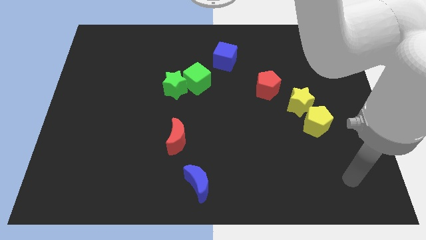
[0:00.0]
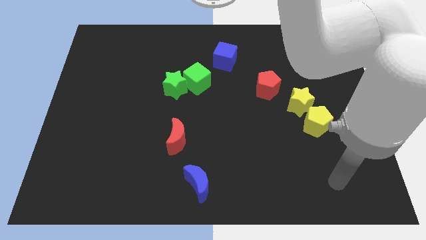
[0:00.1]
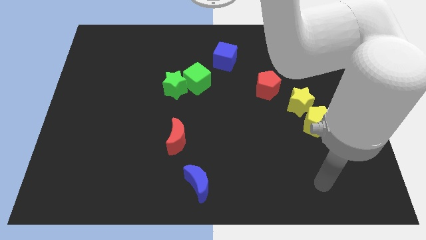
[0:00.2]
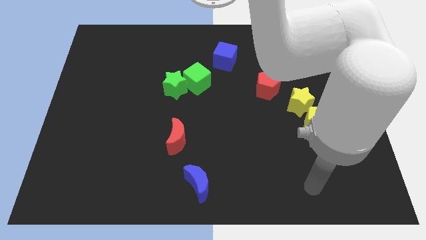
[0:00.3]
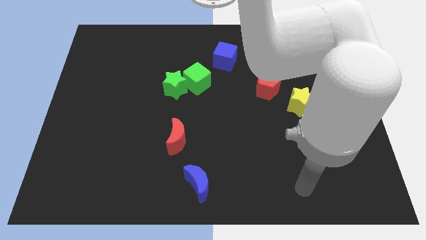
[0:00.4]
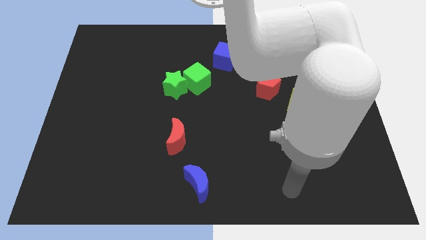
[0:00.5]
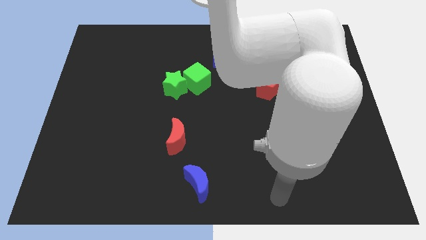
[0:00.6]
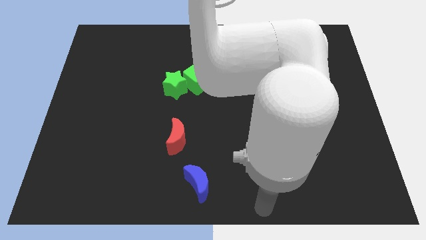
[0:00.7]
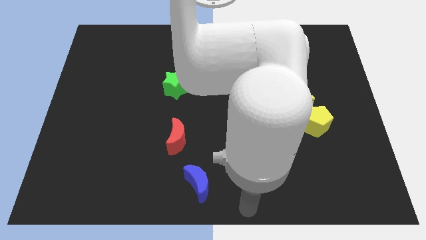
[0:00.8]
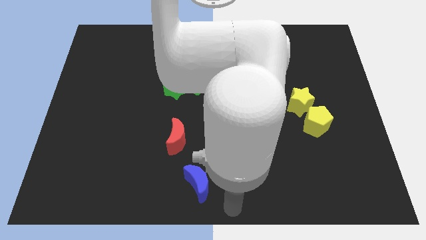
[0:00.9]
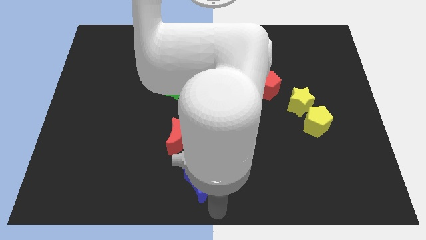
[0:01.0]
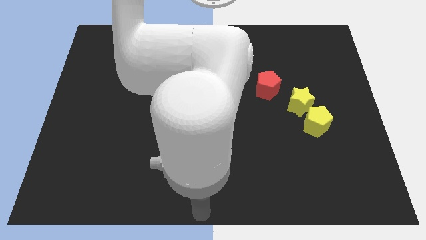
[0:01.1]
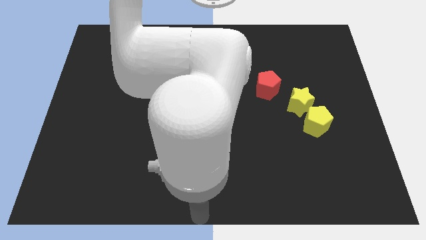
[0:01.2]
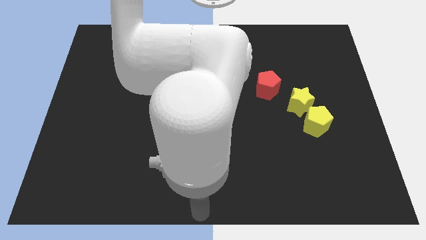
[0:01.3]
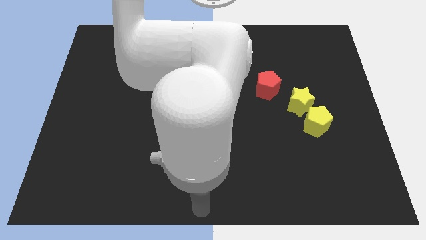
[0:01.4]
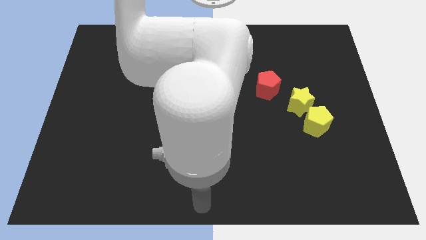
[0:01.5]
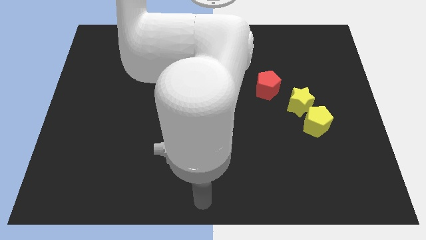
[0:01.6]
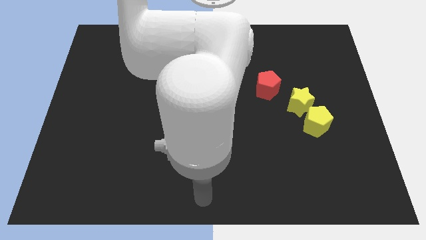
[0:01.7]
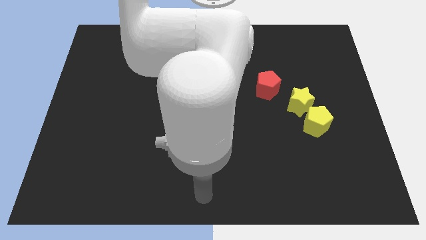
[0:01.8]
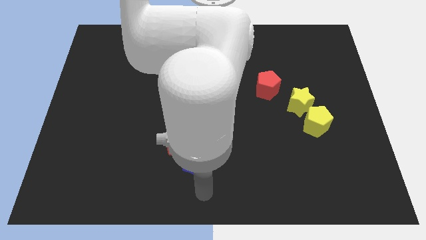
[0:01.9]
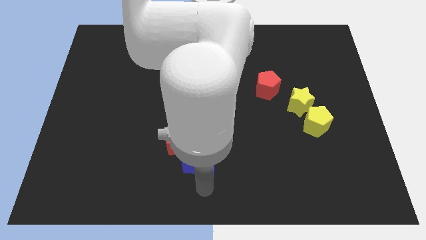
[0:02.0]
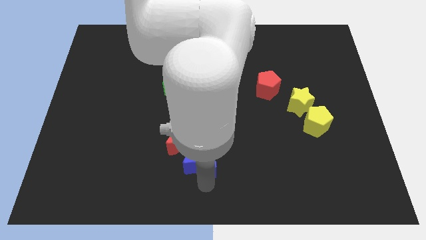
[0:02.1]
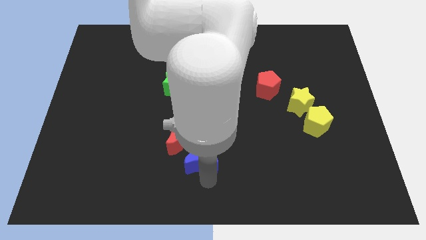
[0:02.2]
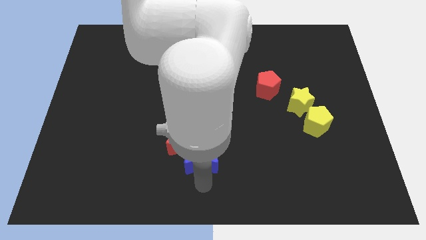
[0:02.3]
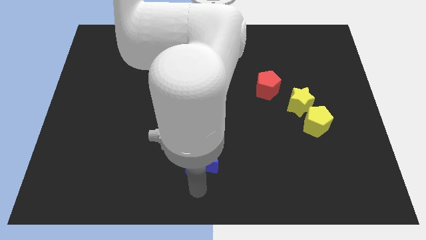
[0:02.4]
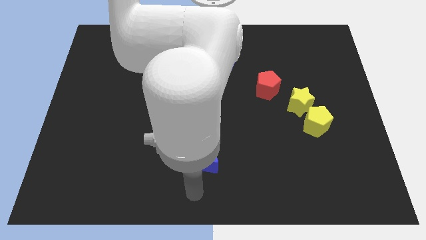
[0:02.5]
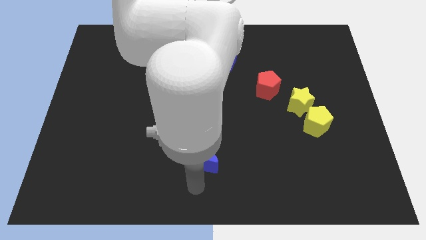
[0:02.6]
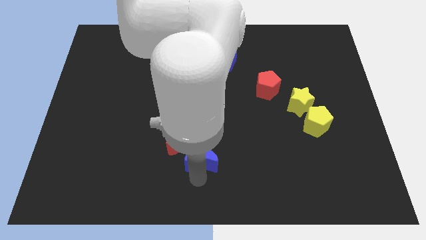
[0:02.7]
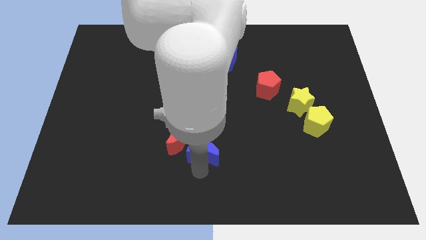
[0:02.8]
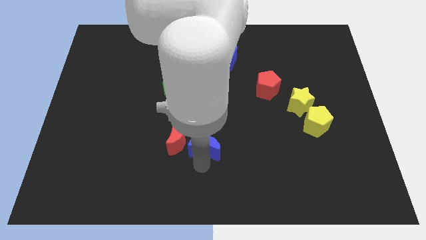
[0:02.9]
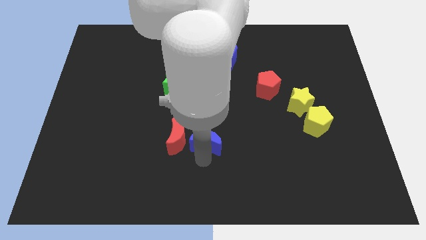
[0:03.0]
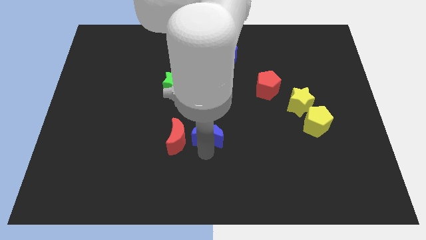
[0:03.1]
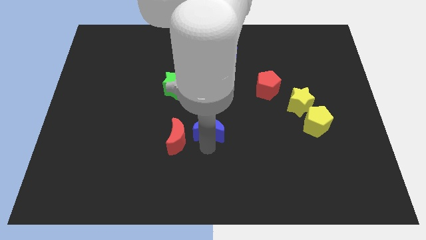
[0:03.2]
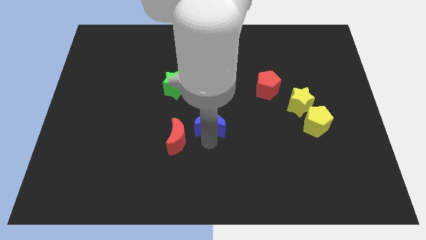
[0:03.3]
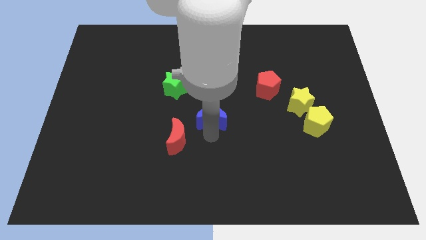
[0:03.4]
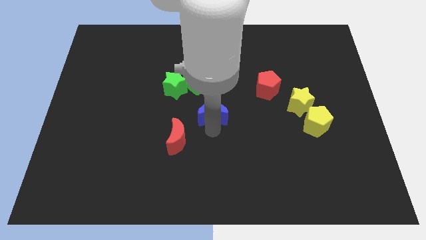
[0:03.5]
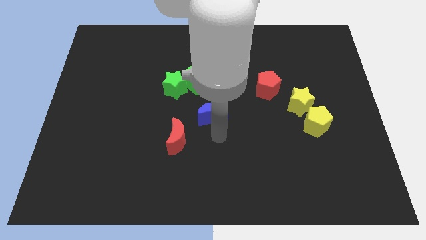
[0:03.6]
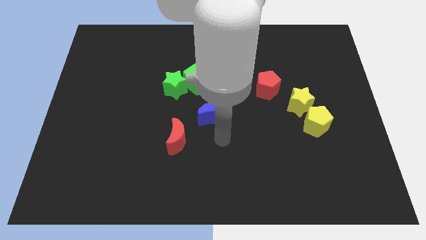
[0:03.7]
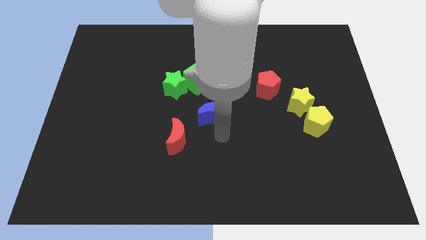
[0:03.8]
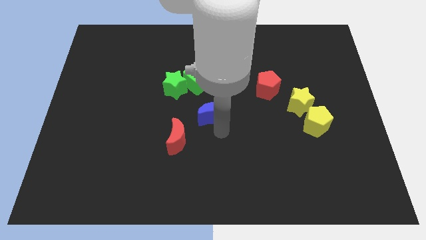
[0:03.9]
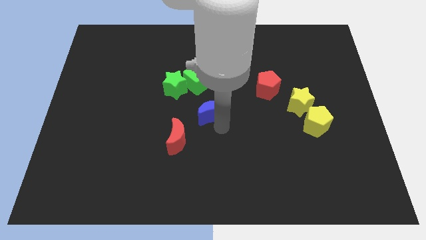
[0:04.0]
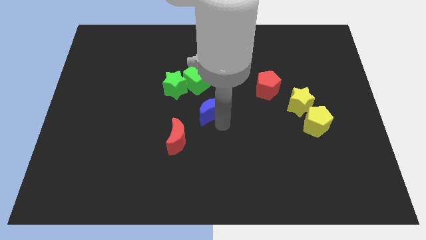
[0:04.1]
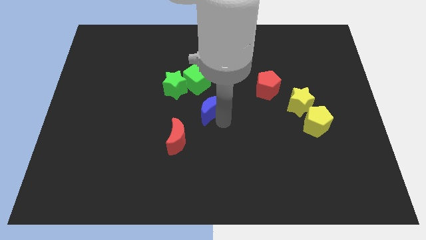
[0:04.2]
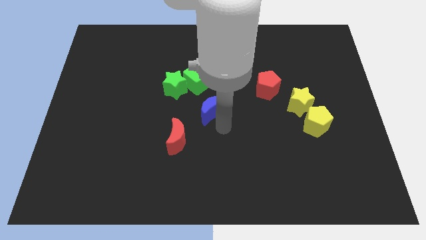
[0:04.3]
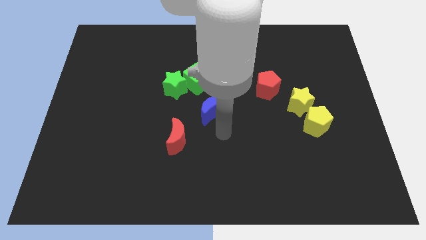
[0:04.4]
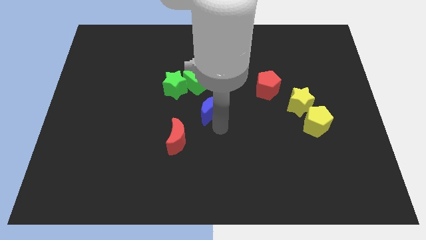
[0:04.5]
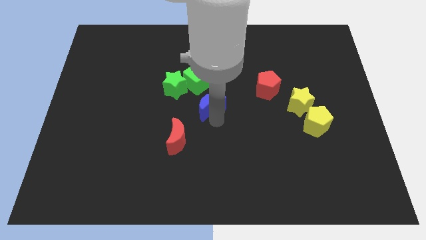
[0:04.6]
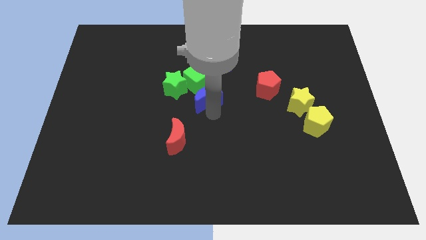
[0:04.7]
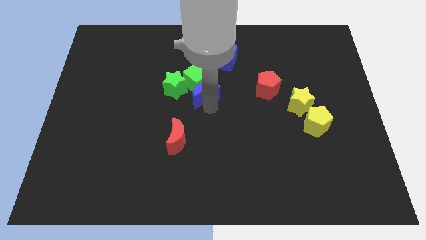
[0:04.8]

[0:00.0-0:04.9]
move the blue moon close to the green cube

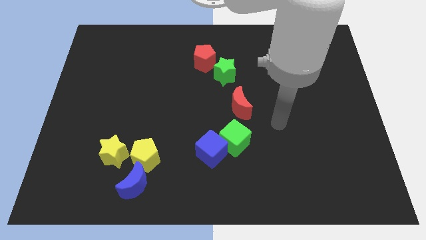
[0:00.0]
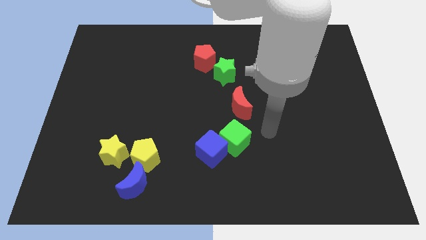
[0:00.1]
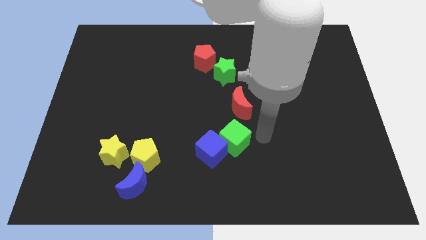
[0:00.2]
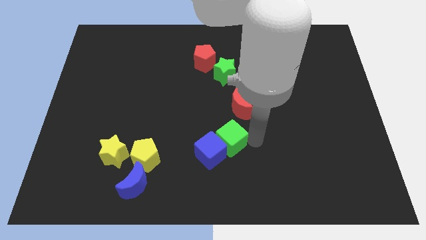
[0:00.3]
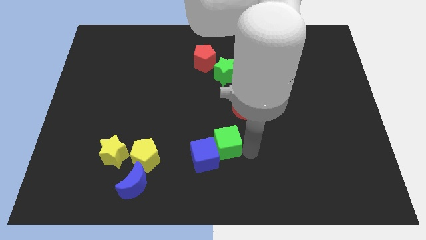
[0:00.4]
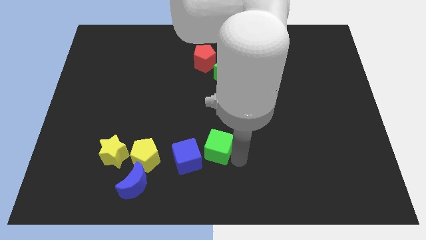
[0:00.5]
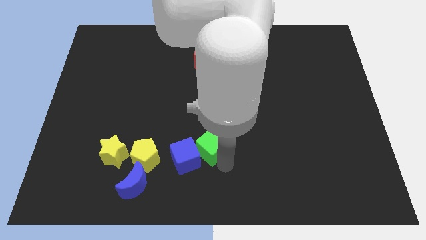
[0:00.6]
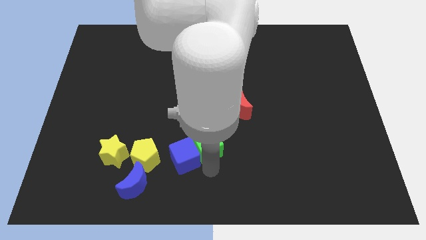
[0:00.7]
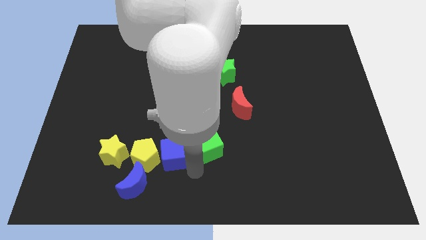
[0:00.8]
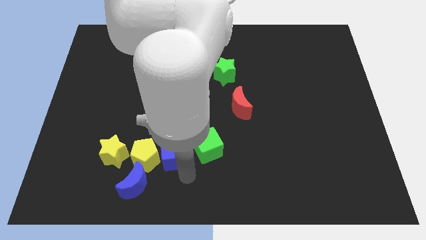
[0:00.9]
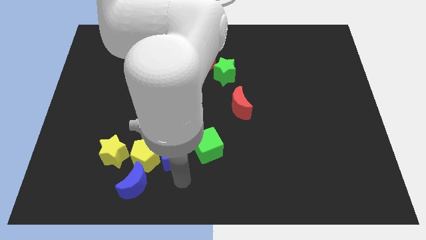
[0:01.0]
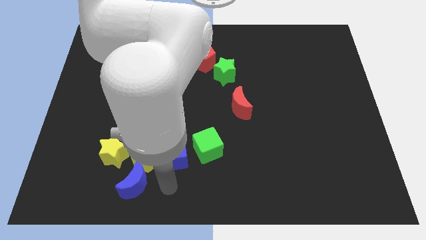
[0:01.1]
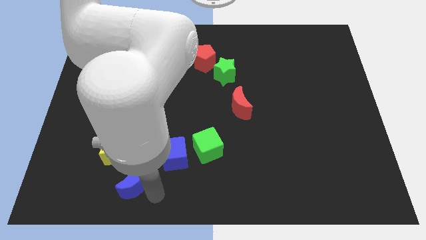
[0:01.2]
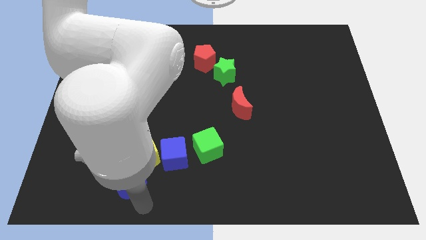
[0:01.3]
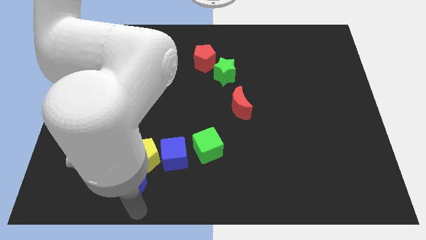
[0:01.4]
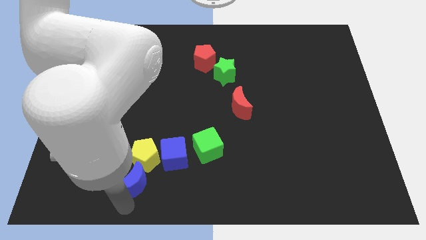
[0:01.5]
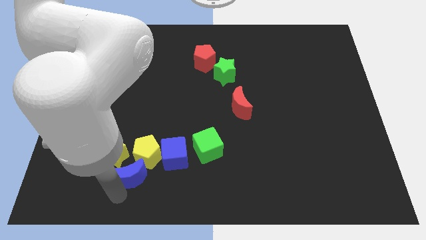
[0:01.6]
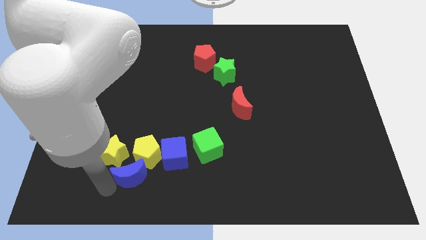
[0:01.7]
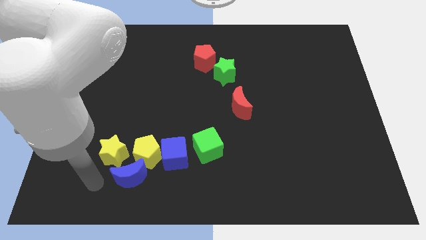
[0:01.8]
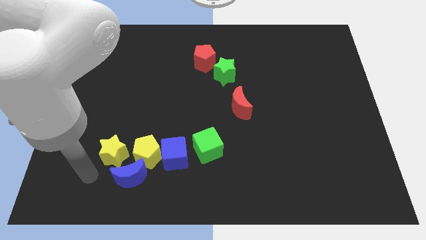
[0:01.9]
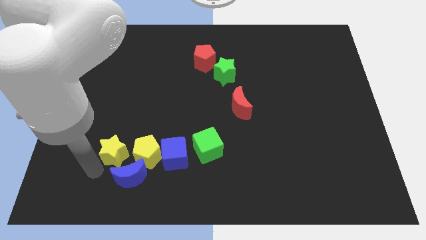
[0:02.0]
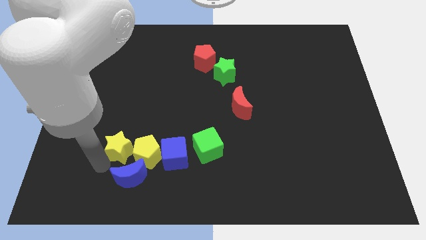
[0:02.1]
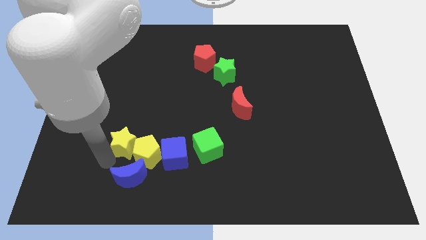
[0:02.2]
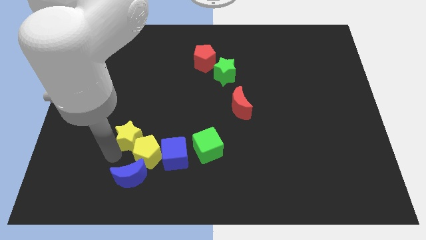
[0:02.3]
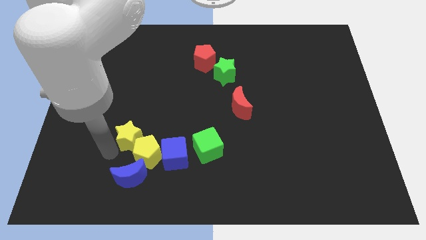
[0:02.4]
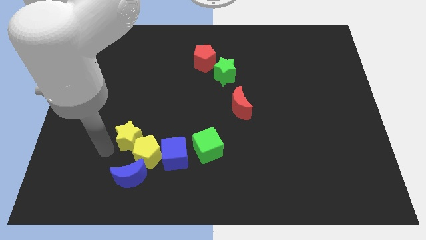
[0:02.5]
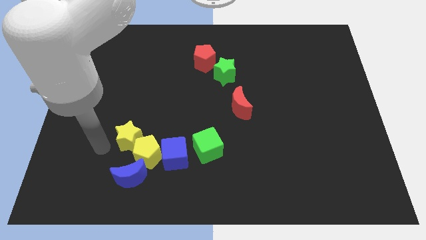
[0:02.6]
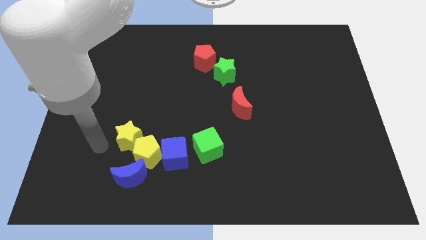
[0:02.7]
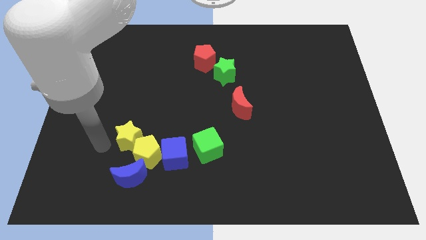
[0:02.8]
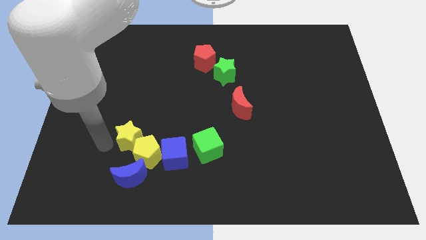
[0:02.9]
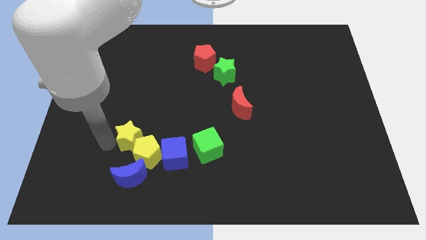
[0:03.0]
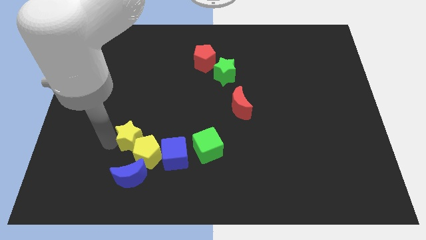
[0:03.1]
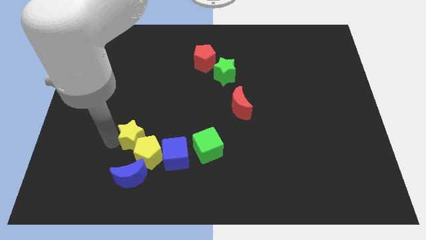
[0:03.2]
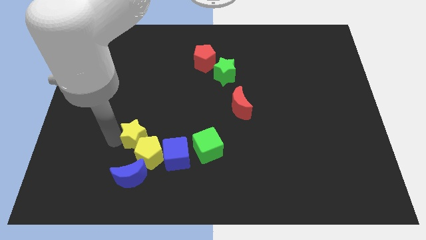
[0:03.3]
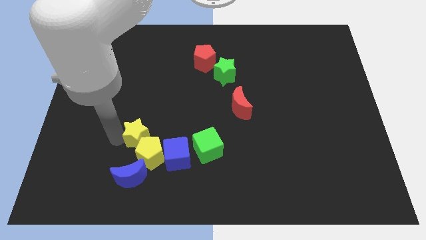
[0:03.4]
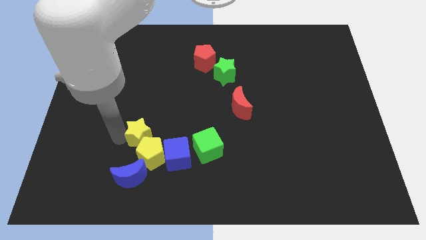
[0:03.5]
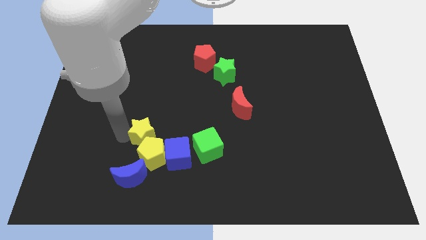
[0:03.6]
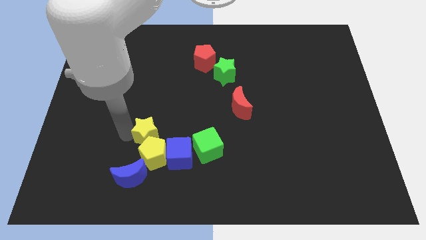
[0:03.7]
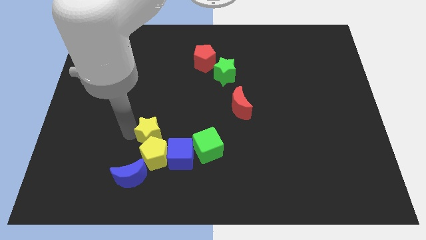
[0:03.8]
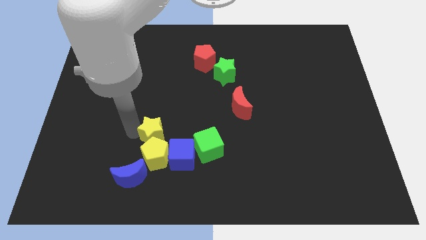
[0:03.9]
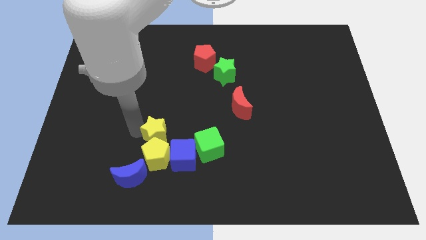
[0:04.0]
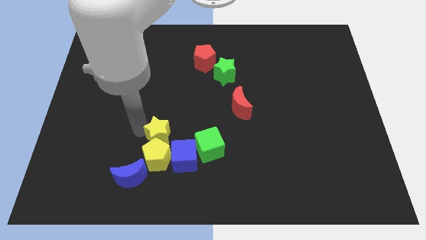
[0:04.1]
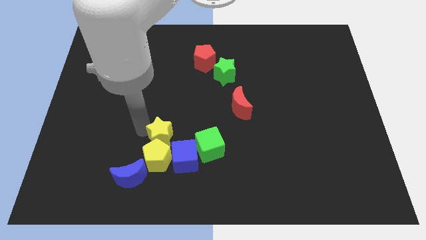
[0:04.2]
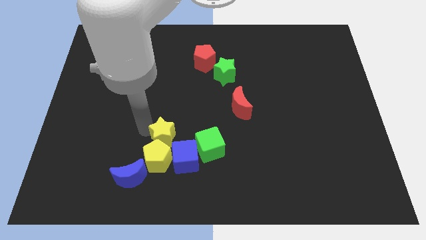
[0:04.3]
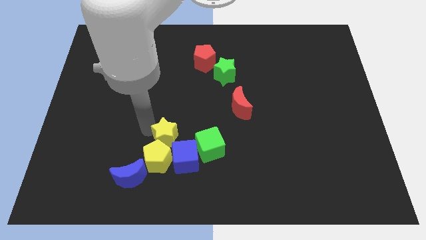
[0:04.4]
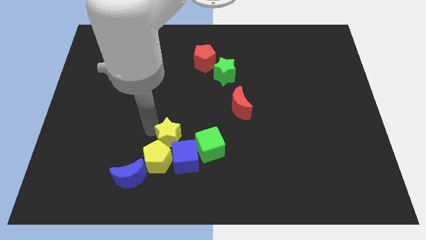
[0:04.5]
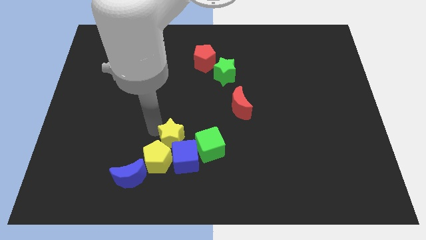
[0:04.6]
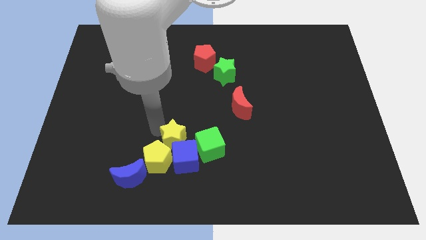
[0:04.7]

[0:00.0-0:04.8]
put the yellow star close to the blue cube
